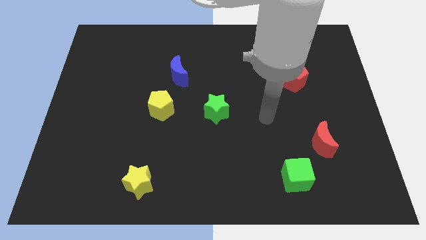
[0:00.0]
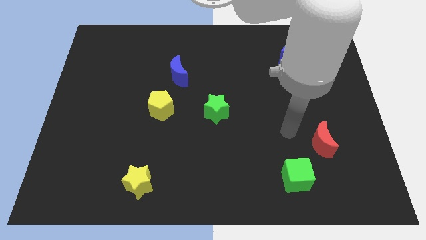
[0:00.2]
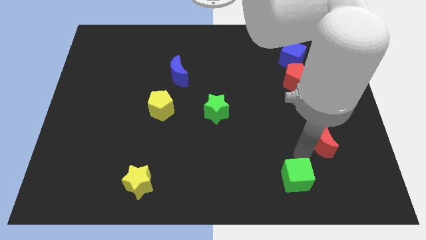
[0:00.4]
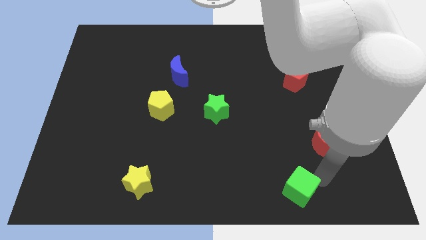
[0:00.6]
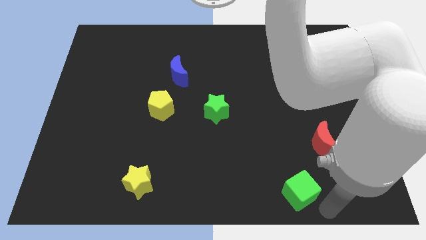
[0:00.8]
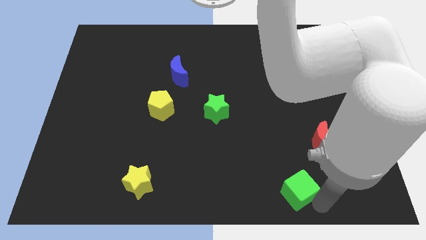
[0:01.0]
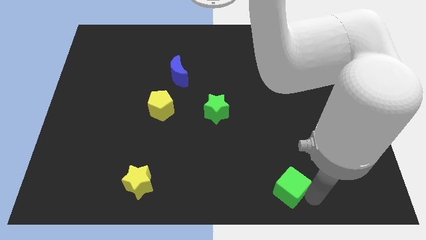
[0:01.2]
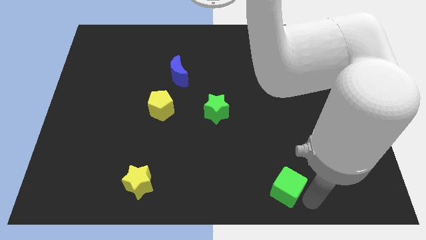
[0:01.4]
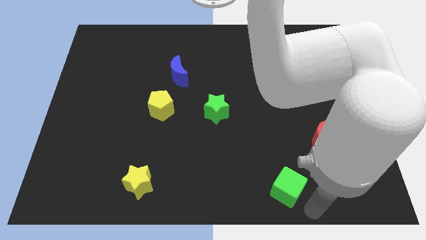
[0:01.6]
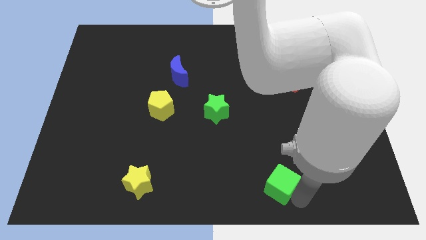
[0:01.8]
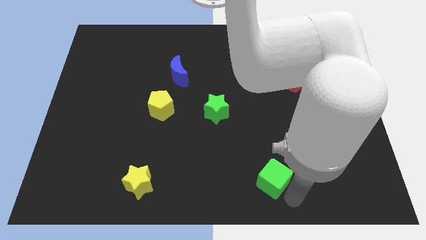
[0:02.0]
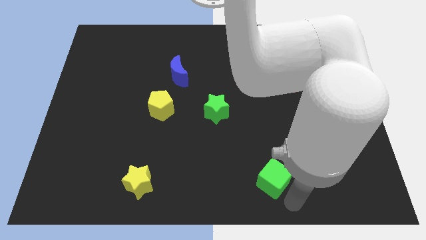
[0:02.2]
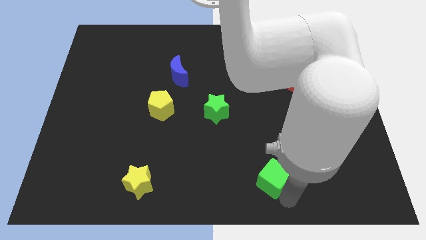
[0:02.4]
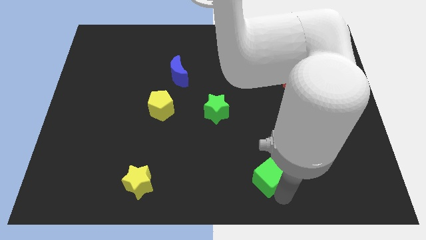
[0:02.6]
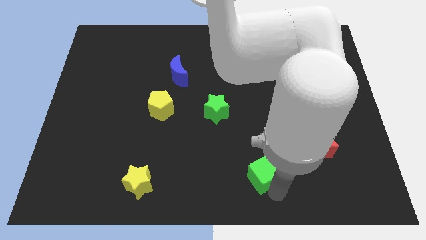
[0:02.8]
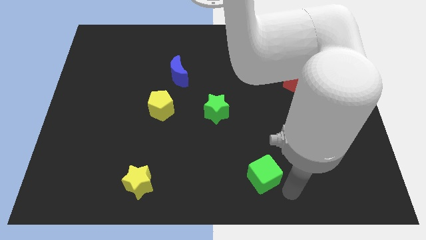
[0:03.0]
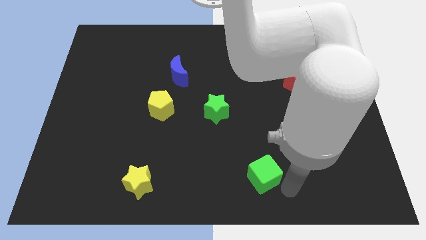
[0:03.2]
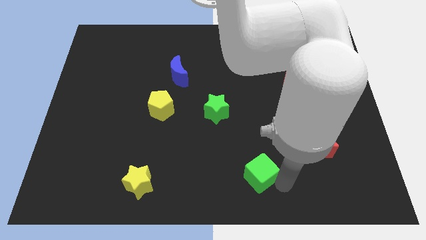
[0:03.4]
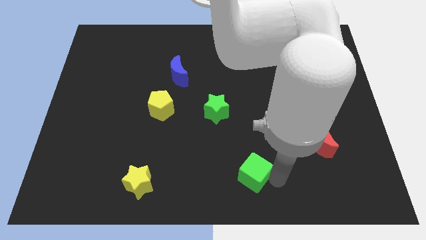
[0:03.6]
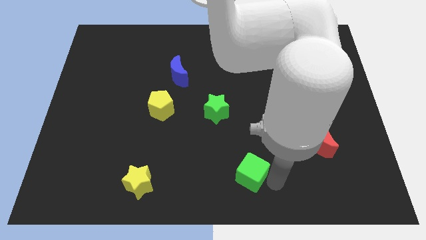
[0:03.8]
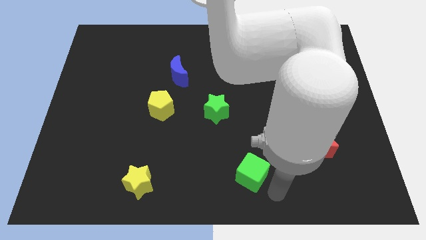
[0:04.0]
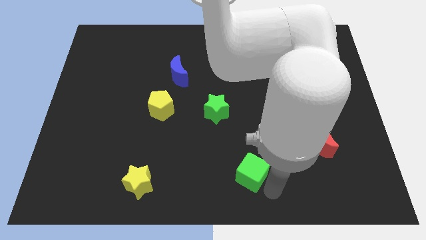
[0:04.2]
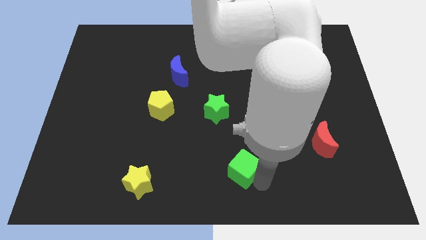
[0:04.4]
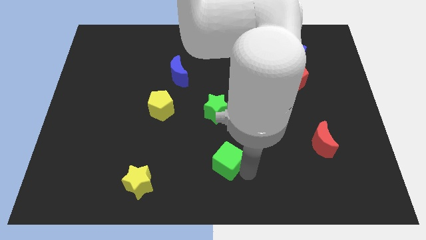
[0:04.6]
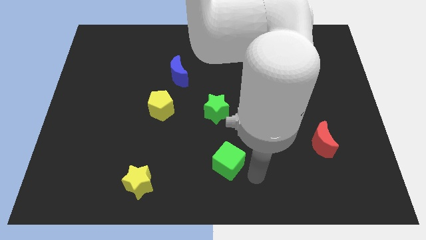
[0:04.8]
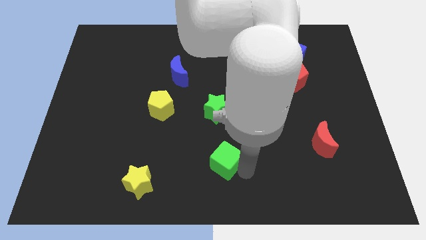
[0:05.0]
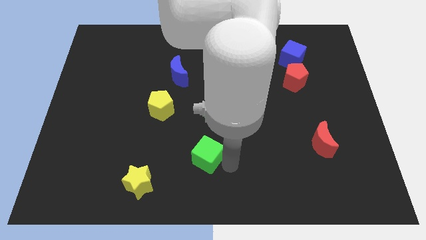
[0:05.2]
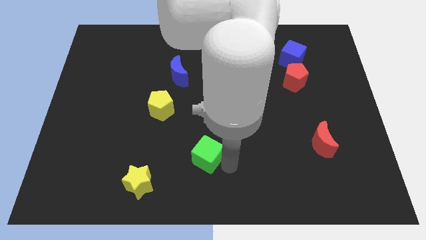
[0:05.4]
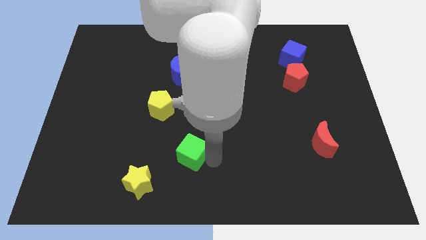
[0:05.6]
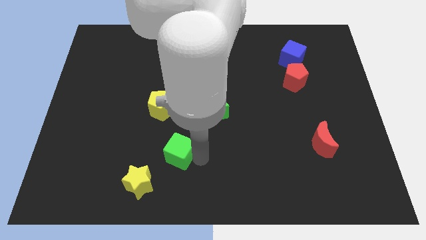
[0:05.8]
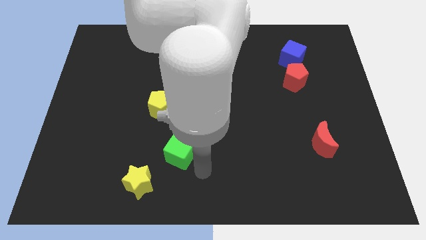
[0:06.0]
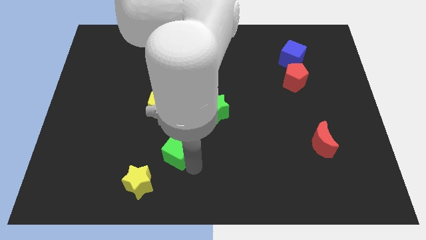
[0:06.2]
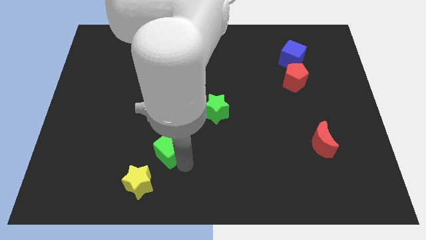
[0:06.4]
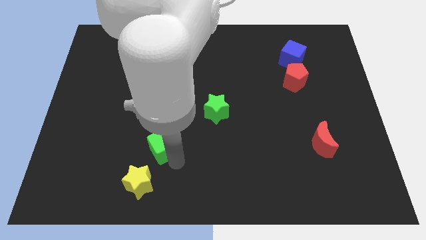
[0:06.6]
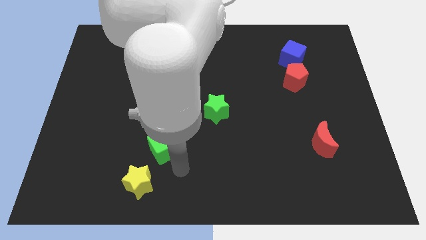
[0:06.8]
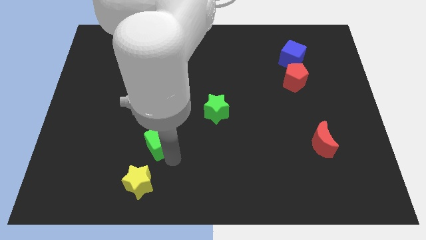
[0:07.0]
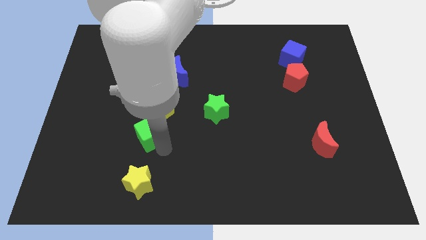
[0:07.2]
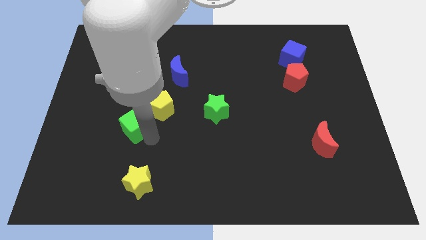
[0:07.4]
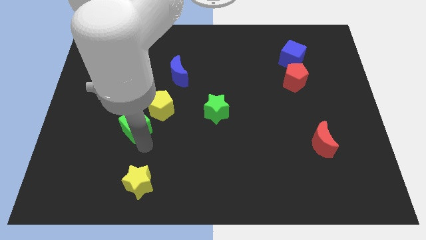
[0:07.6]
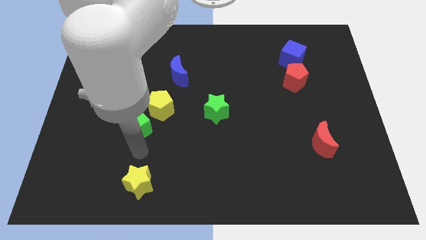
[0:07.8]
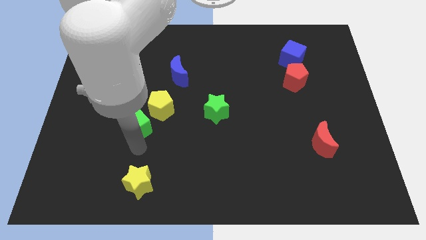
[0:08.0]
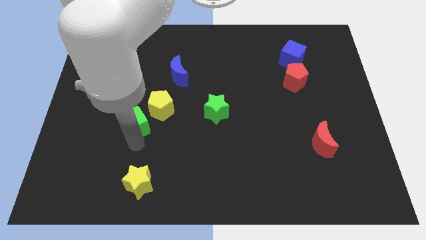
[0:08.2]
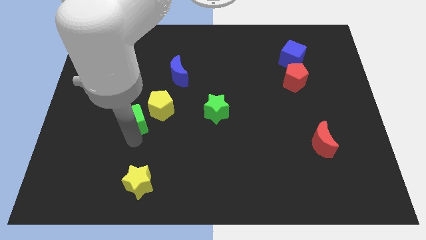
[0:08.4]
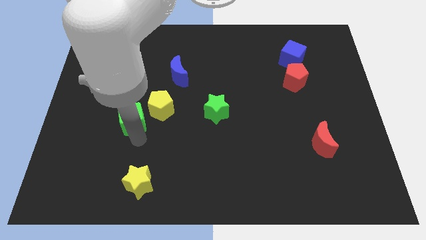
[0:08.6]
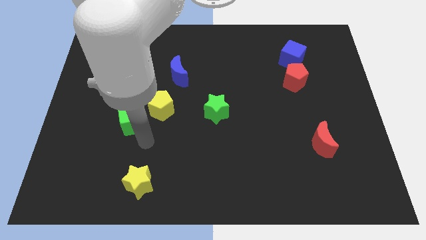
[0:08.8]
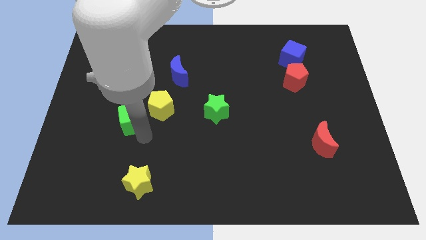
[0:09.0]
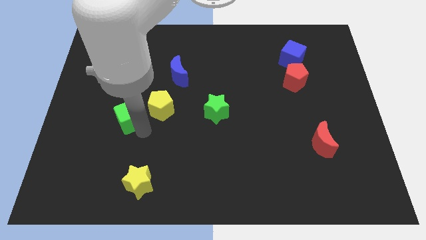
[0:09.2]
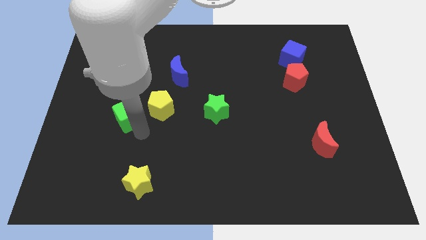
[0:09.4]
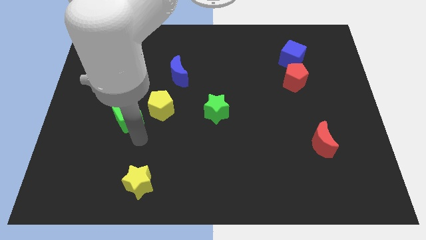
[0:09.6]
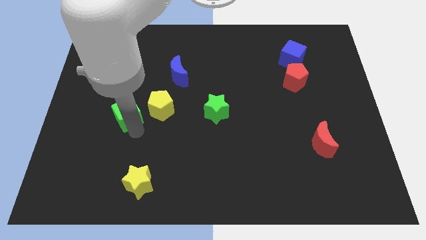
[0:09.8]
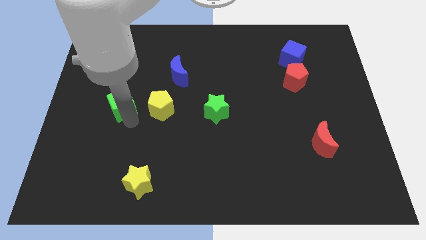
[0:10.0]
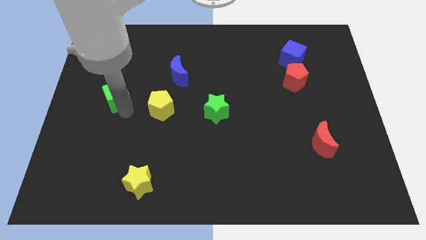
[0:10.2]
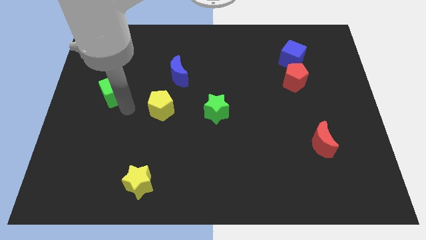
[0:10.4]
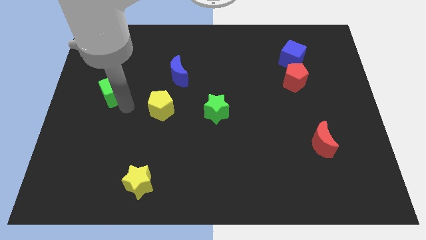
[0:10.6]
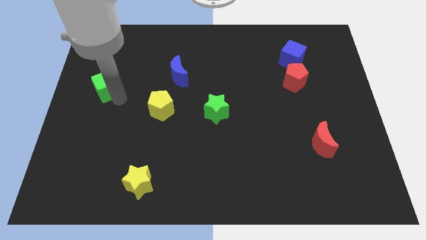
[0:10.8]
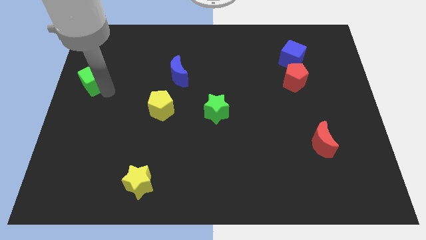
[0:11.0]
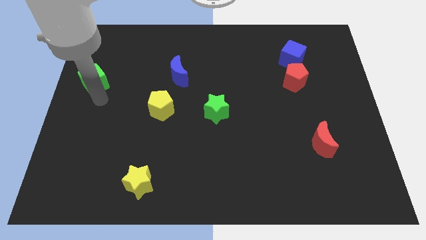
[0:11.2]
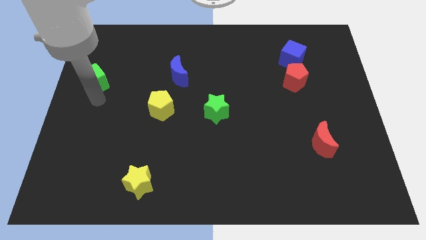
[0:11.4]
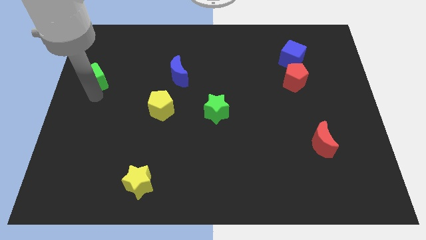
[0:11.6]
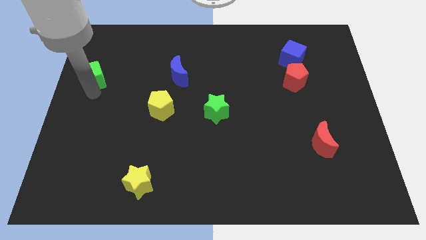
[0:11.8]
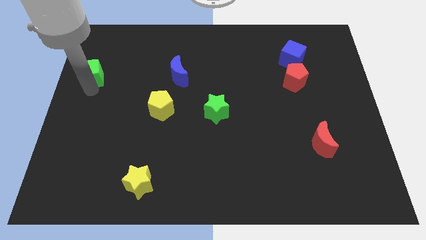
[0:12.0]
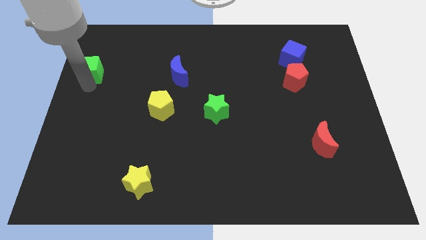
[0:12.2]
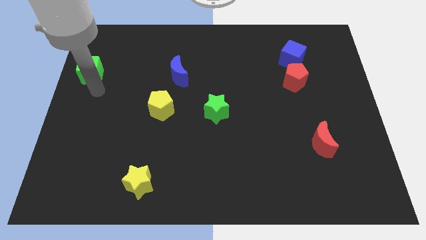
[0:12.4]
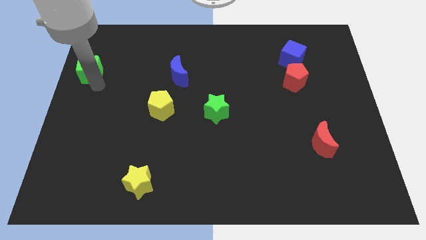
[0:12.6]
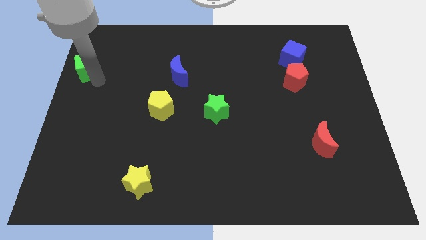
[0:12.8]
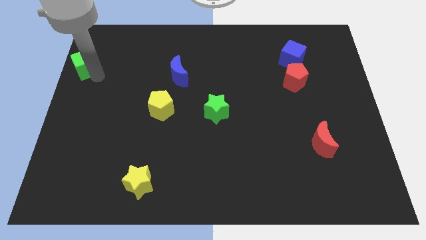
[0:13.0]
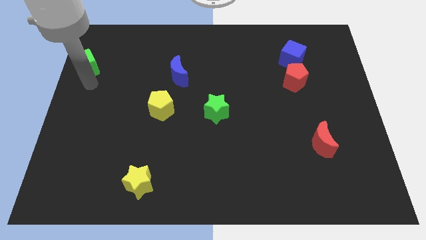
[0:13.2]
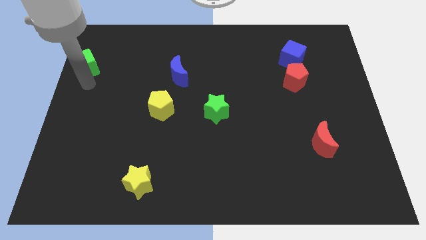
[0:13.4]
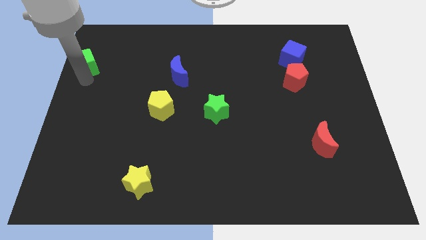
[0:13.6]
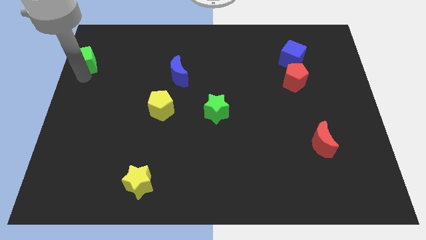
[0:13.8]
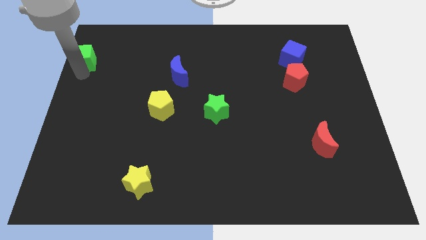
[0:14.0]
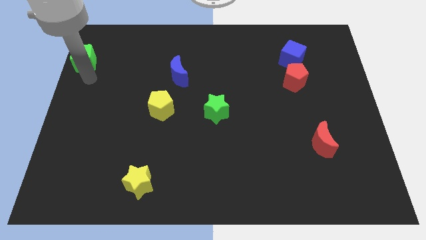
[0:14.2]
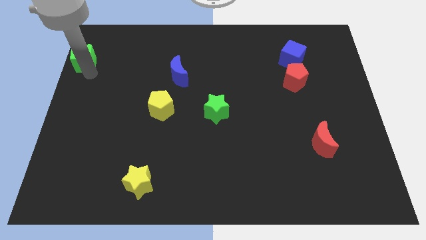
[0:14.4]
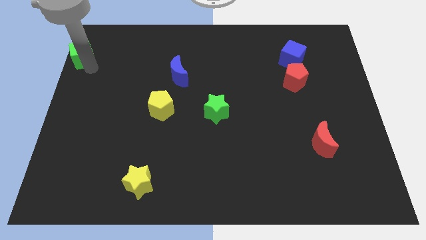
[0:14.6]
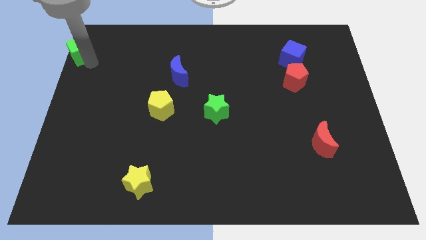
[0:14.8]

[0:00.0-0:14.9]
put the green cube to the upper left corner
